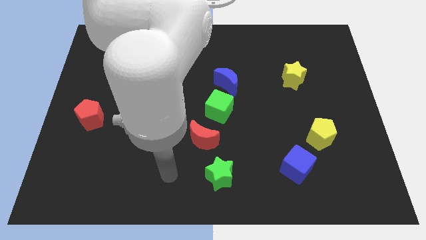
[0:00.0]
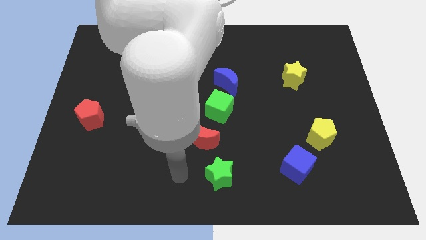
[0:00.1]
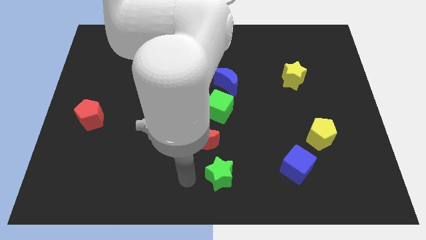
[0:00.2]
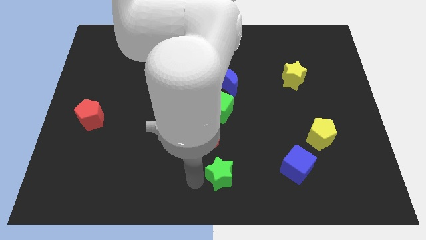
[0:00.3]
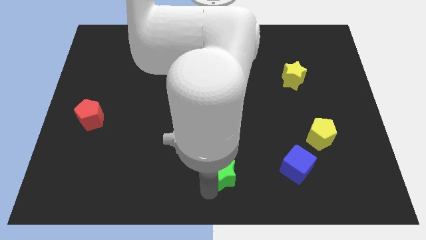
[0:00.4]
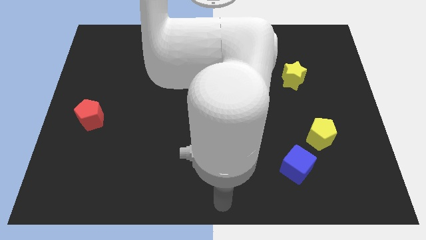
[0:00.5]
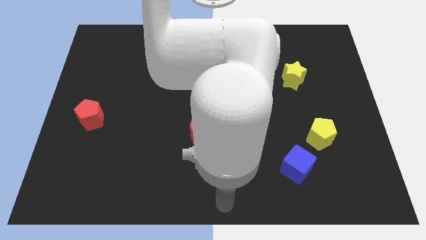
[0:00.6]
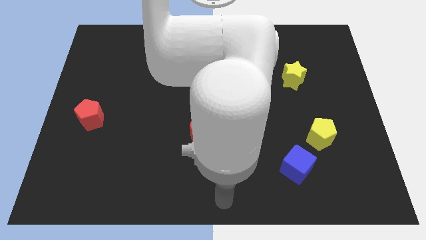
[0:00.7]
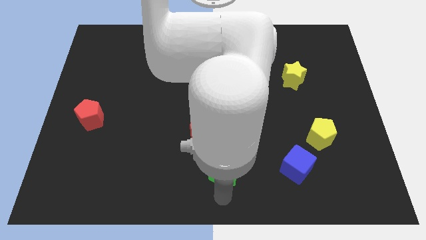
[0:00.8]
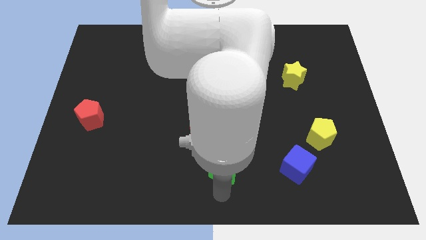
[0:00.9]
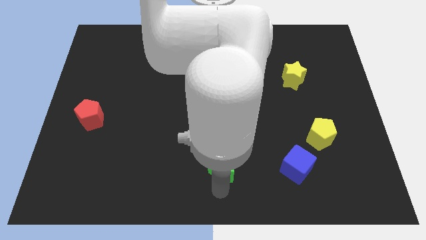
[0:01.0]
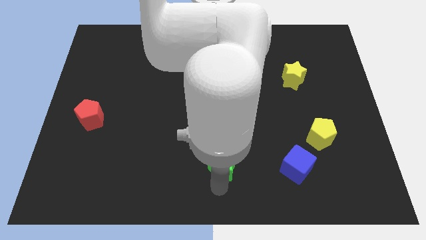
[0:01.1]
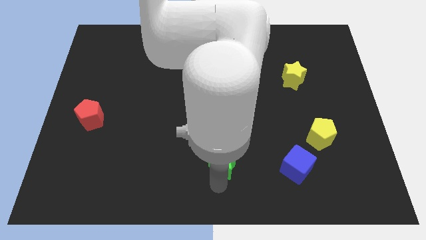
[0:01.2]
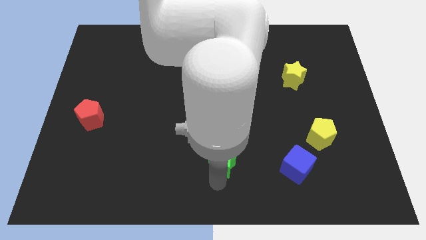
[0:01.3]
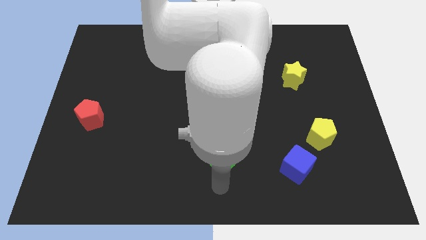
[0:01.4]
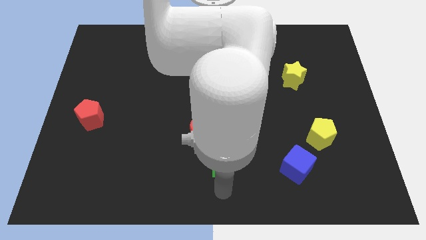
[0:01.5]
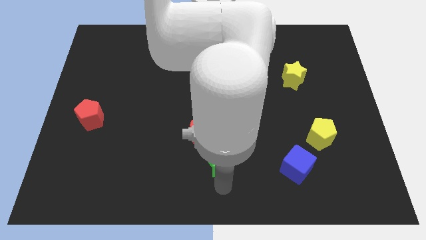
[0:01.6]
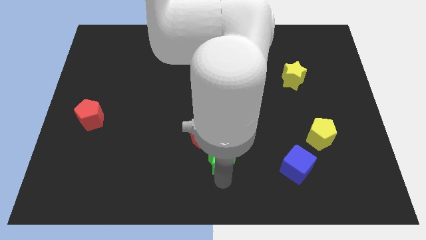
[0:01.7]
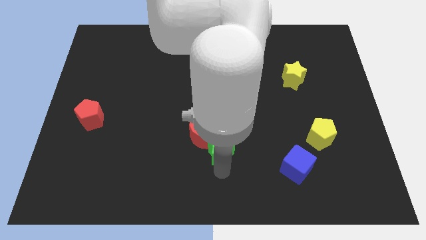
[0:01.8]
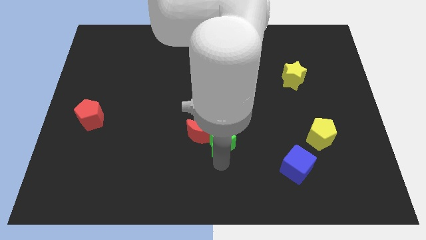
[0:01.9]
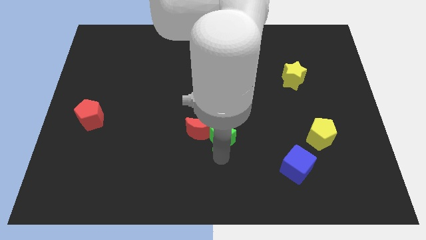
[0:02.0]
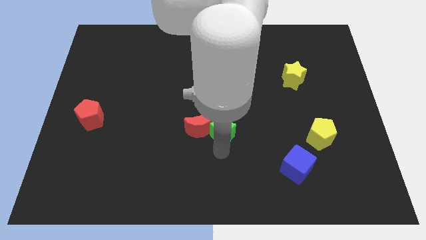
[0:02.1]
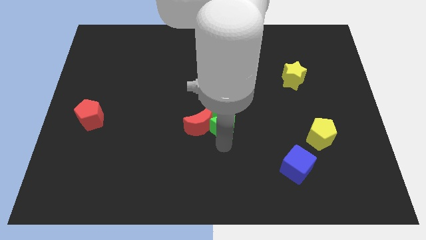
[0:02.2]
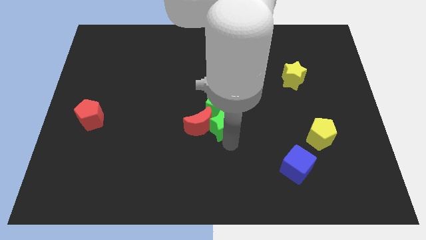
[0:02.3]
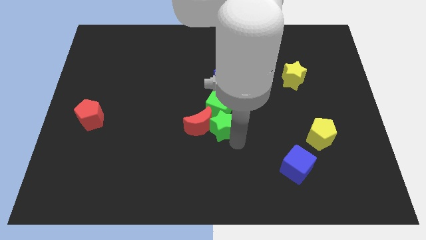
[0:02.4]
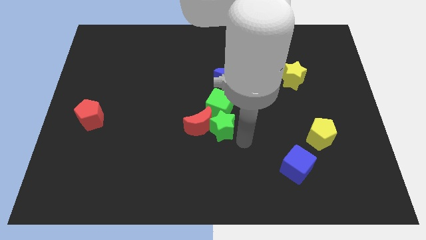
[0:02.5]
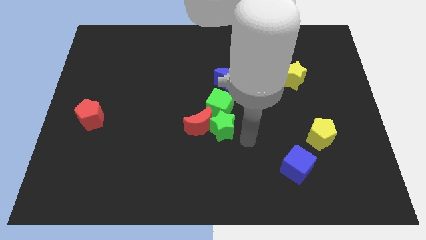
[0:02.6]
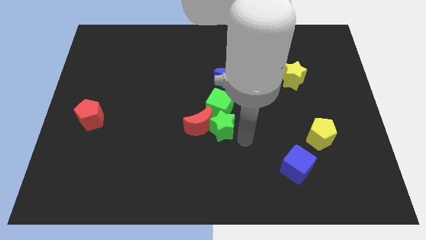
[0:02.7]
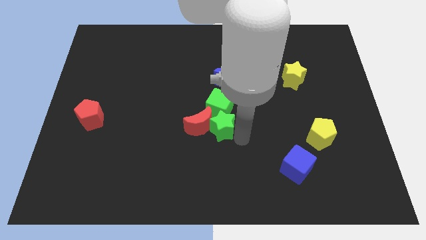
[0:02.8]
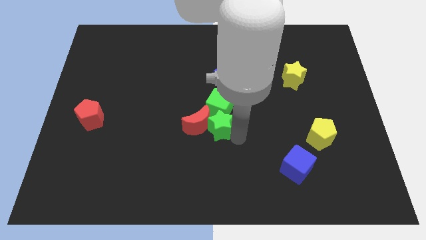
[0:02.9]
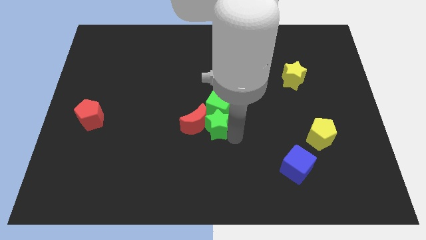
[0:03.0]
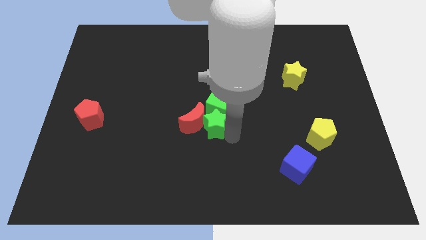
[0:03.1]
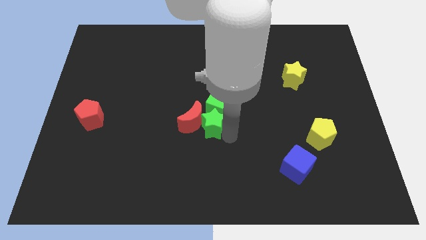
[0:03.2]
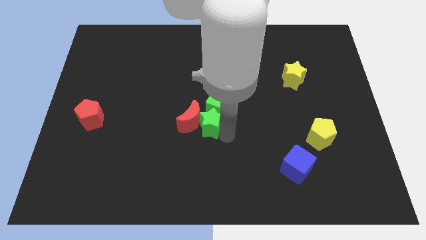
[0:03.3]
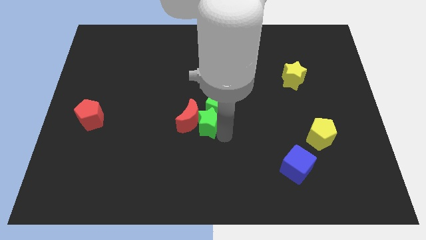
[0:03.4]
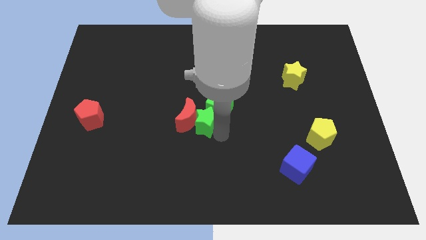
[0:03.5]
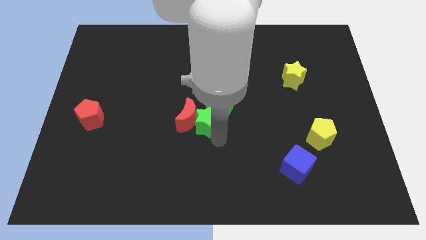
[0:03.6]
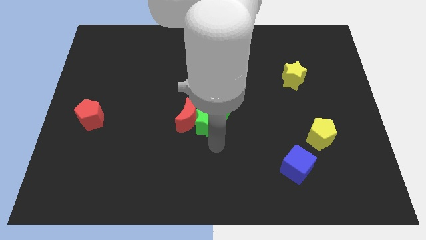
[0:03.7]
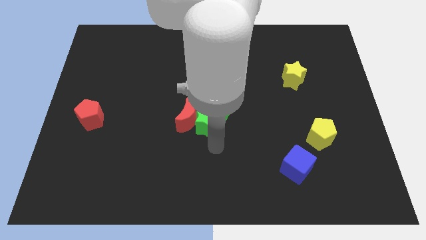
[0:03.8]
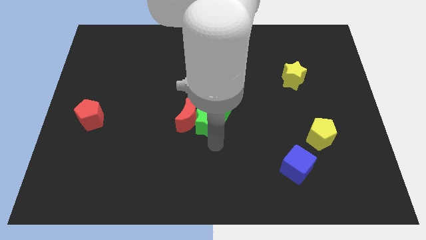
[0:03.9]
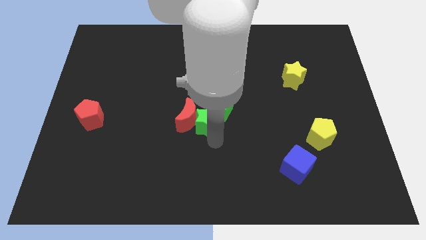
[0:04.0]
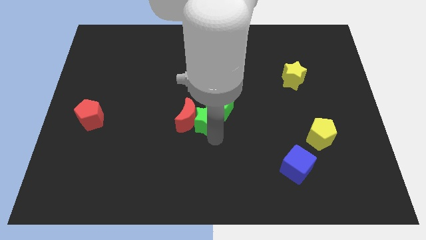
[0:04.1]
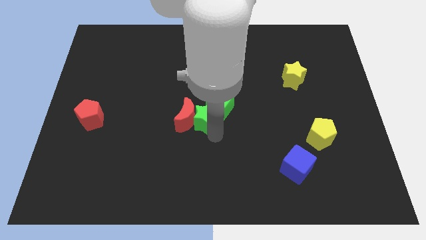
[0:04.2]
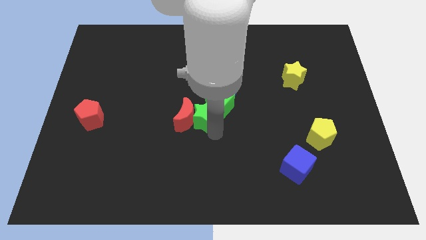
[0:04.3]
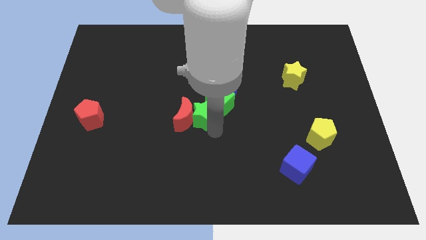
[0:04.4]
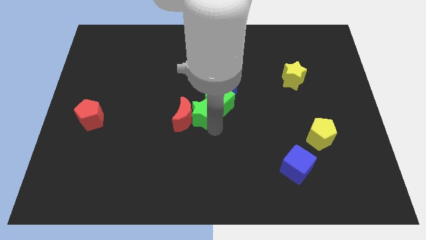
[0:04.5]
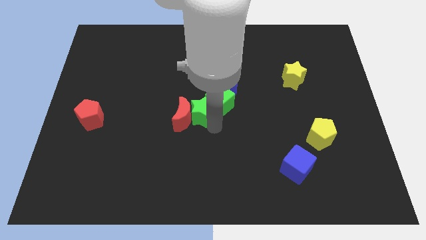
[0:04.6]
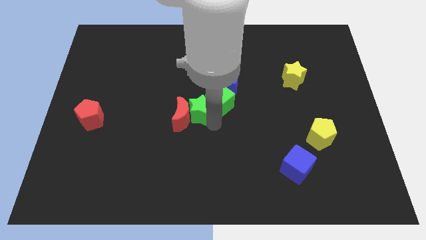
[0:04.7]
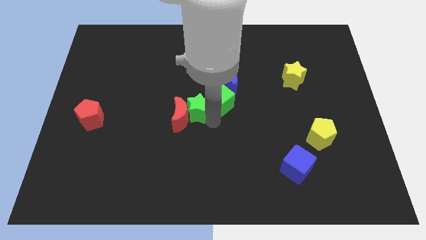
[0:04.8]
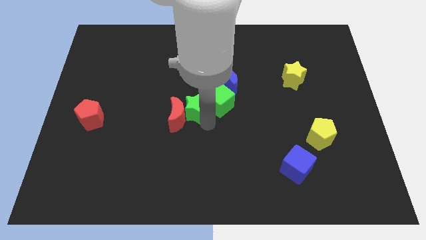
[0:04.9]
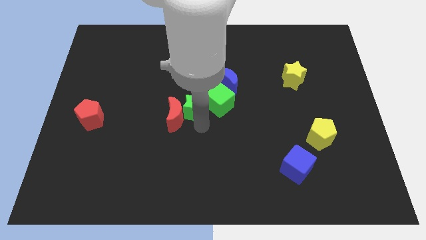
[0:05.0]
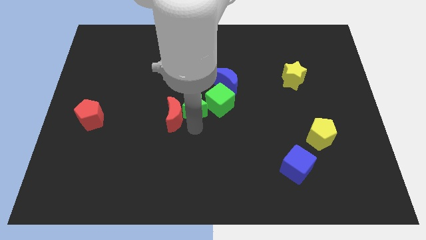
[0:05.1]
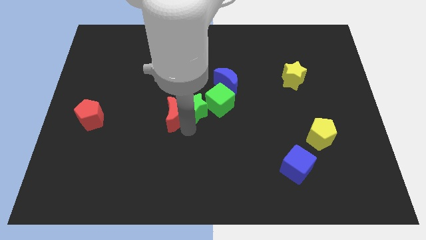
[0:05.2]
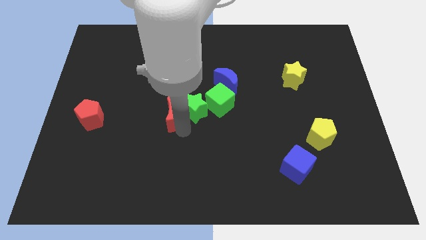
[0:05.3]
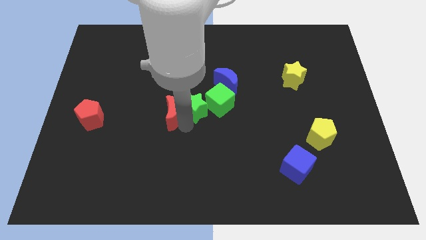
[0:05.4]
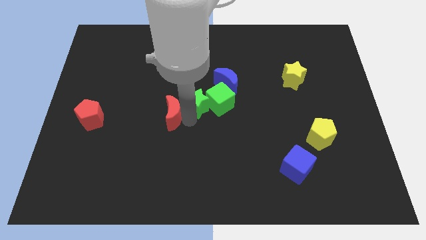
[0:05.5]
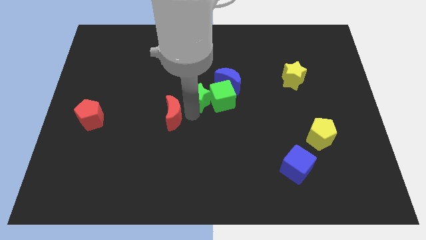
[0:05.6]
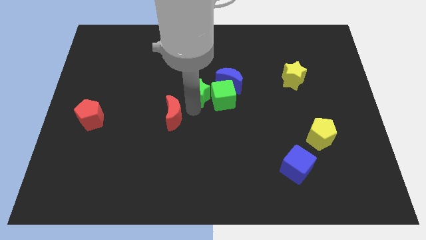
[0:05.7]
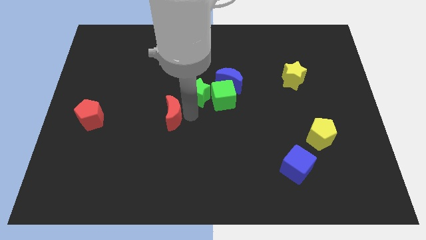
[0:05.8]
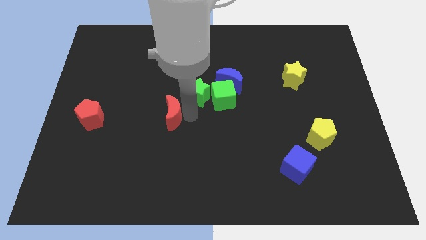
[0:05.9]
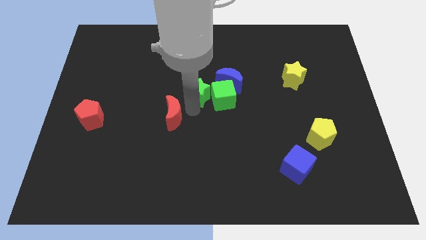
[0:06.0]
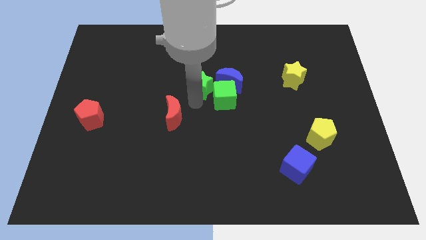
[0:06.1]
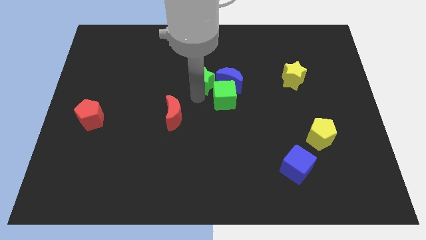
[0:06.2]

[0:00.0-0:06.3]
push the green star to the top left of the blue moon

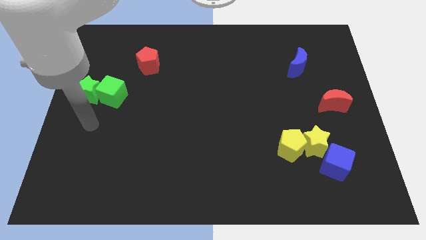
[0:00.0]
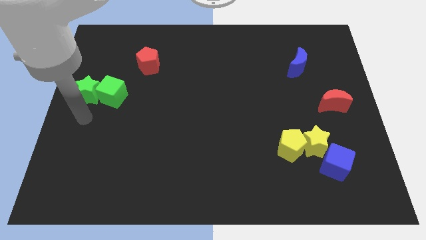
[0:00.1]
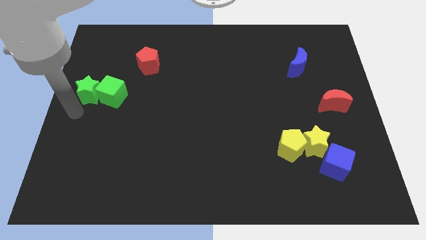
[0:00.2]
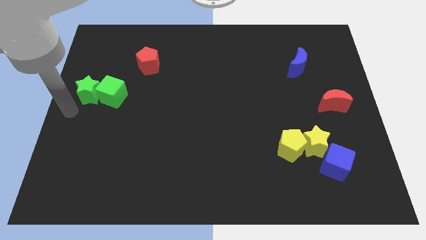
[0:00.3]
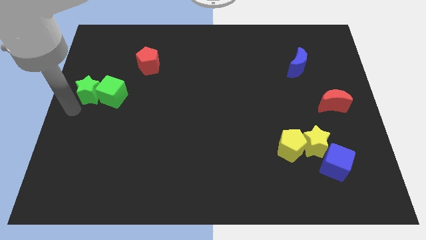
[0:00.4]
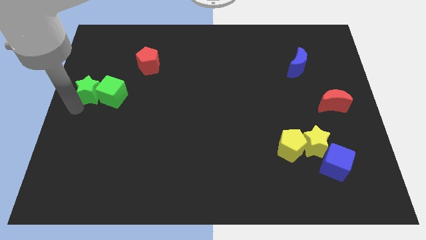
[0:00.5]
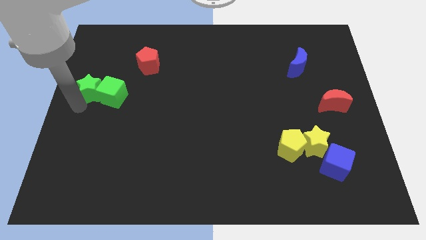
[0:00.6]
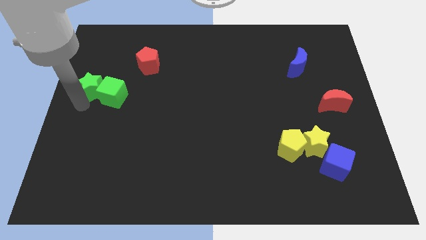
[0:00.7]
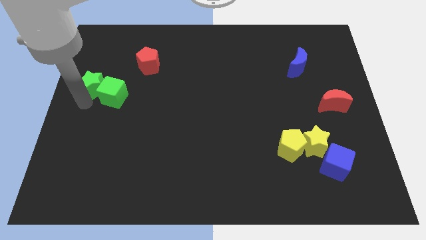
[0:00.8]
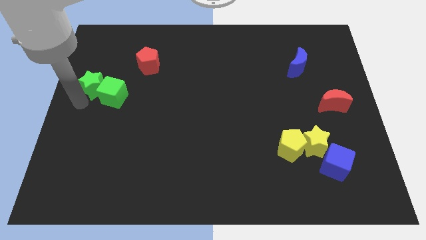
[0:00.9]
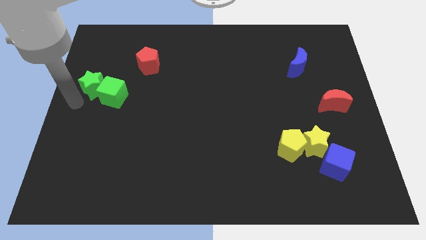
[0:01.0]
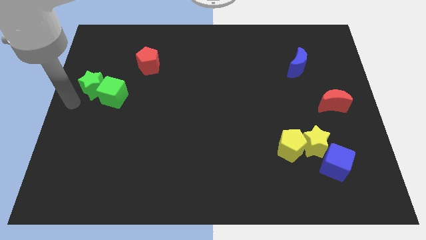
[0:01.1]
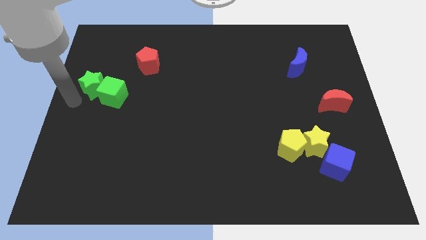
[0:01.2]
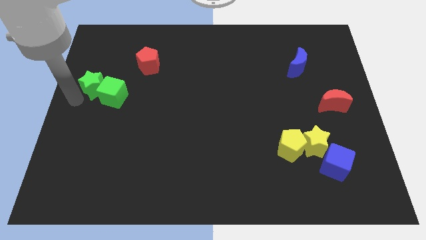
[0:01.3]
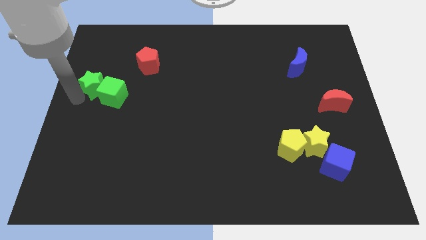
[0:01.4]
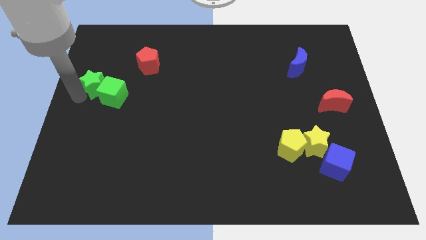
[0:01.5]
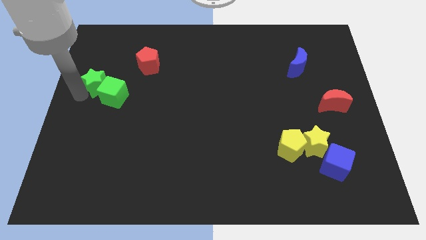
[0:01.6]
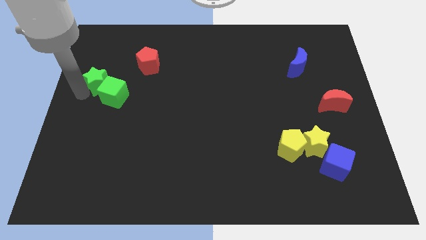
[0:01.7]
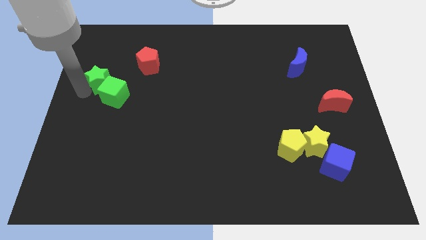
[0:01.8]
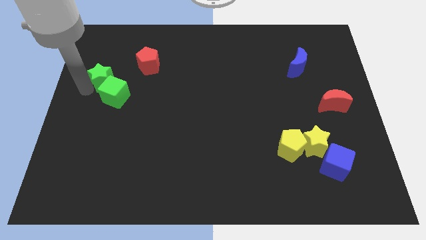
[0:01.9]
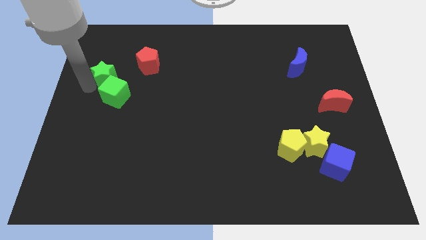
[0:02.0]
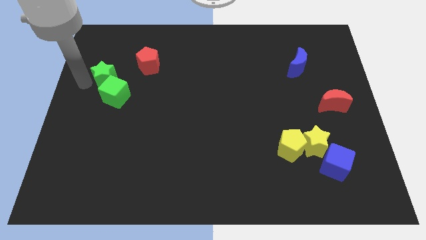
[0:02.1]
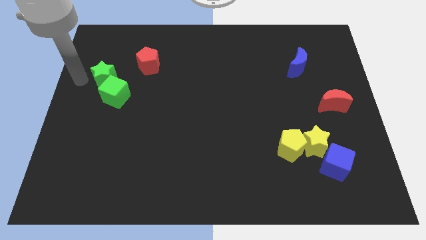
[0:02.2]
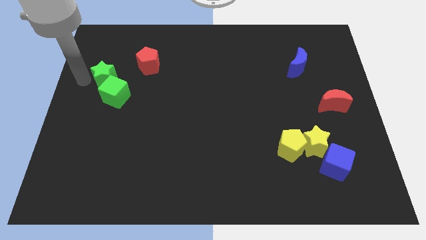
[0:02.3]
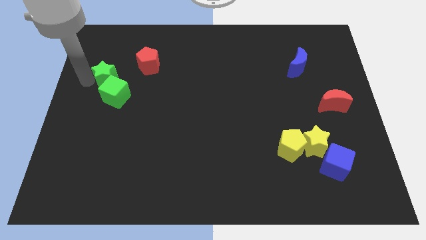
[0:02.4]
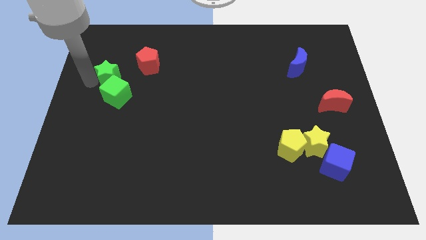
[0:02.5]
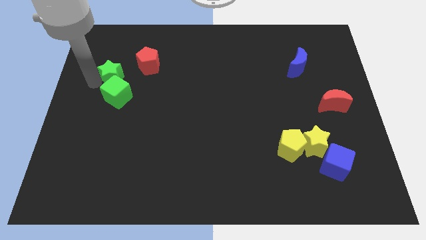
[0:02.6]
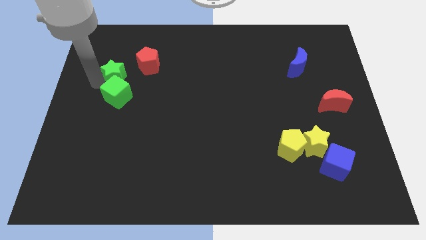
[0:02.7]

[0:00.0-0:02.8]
move the green star to the top right side of the green cube
